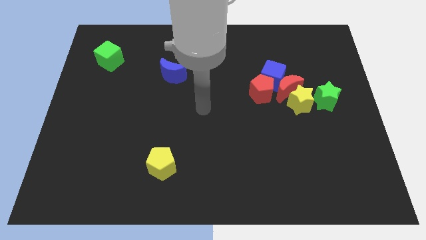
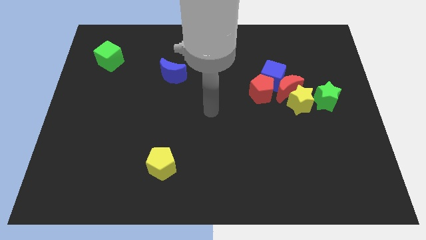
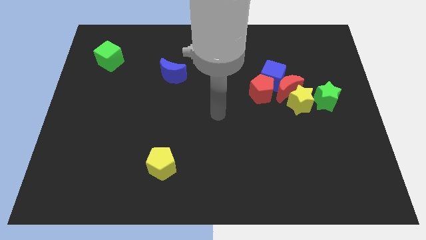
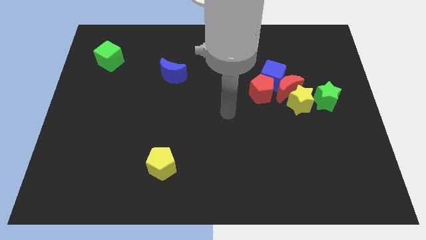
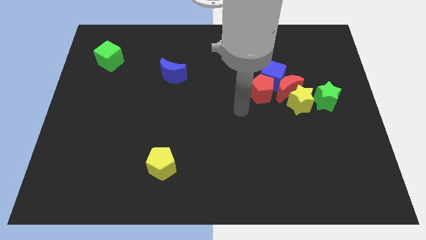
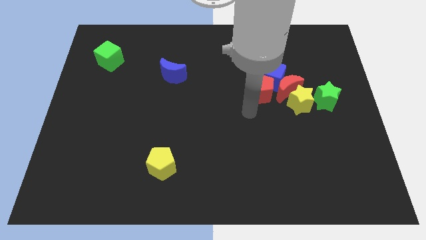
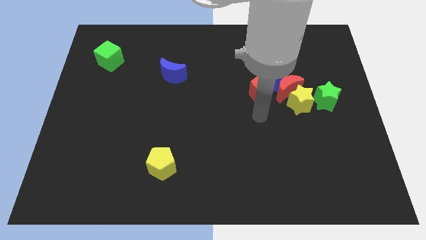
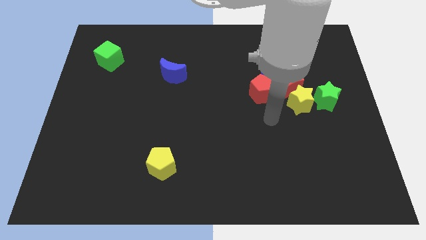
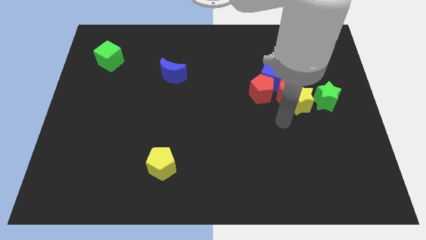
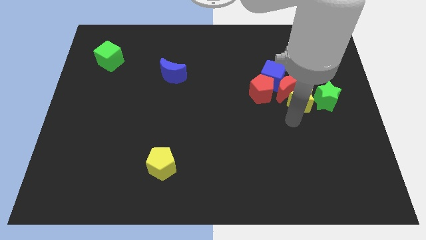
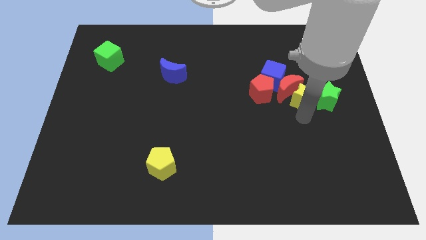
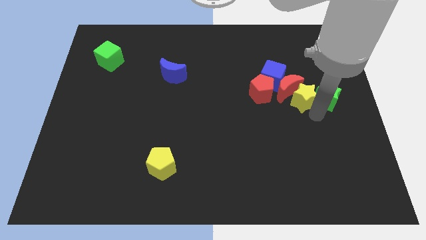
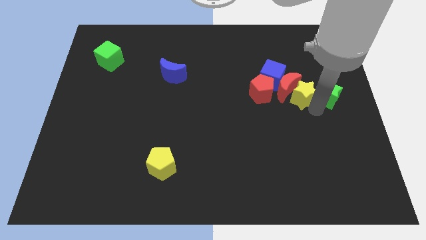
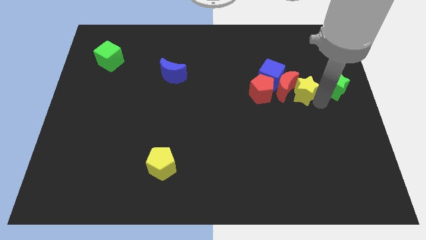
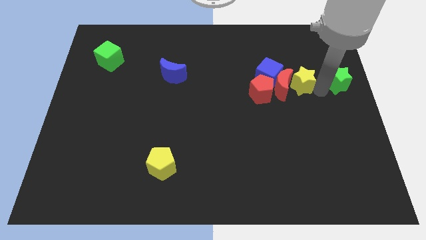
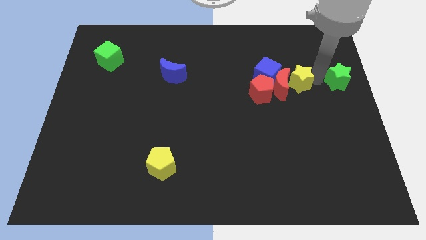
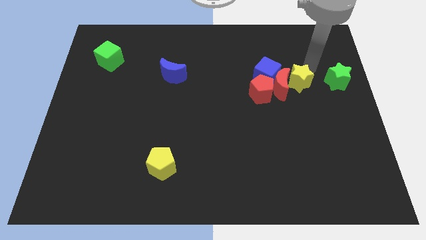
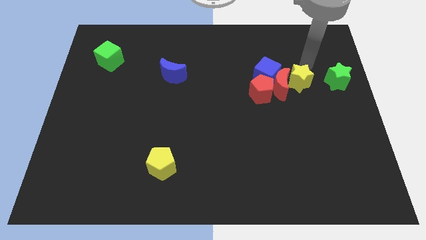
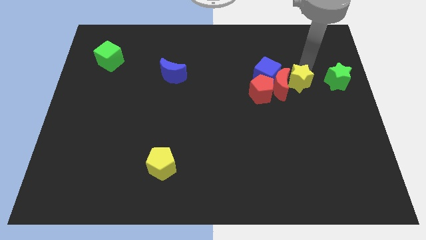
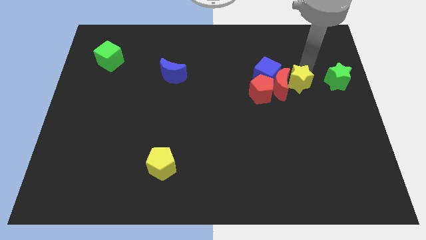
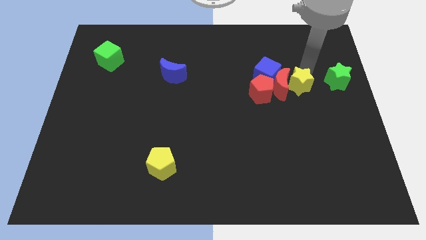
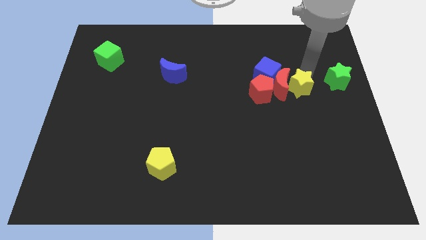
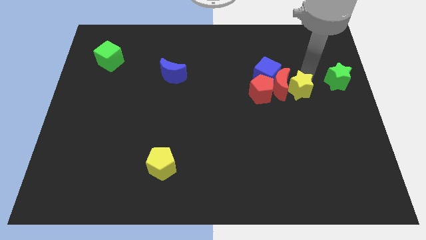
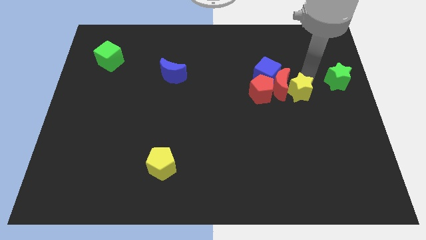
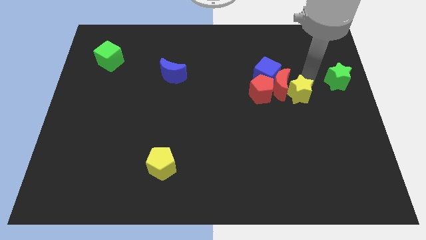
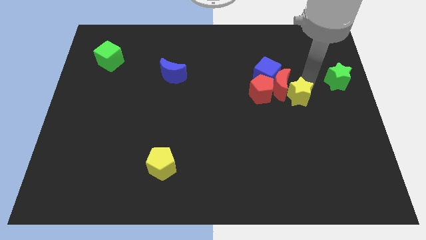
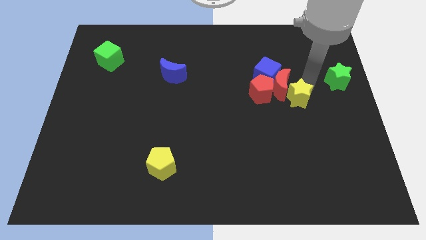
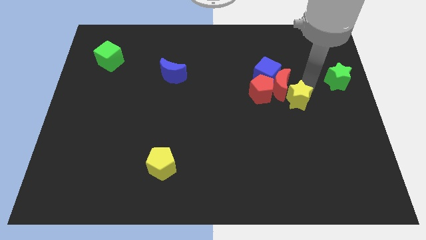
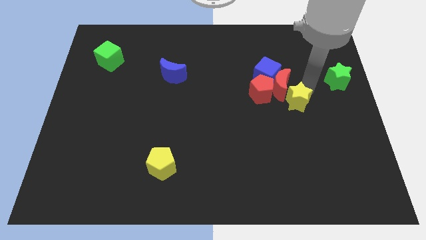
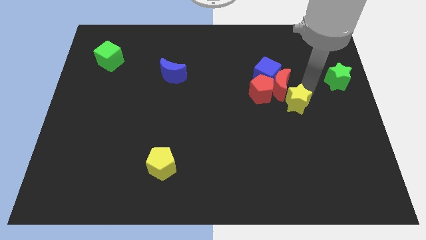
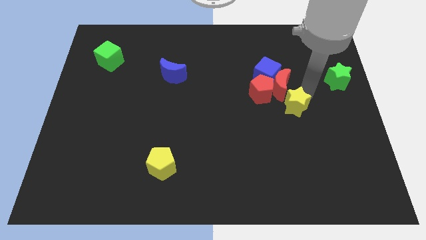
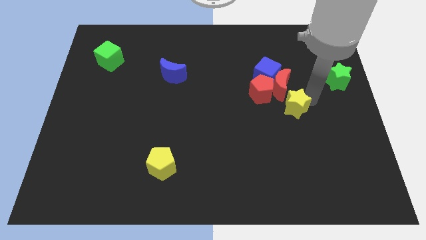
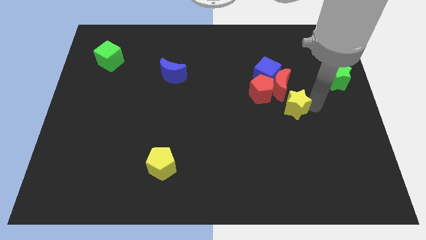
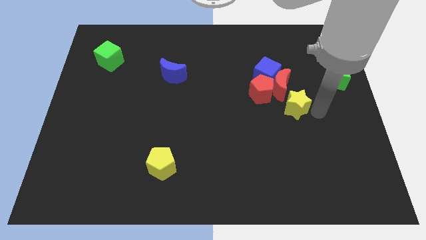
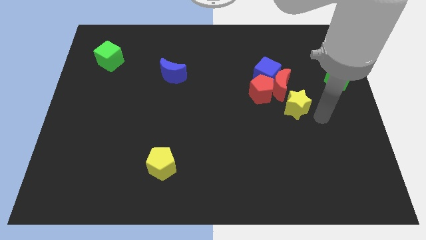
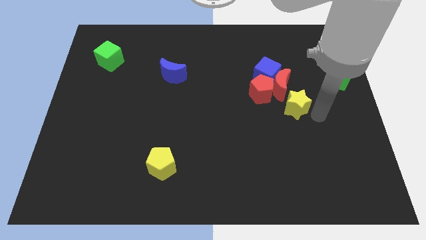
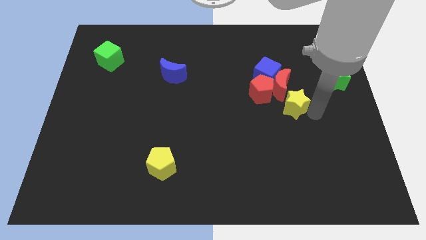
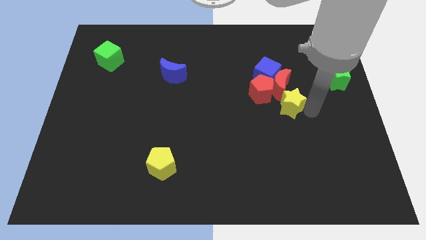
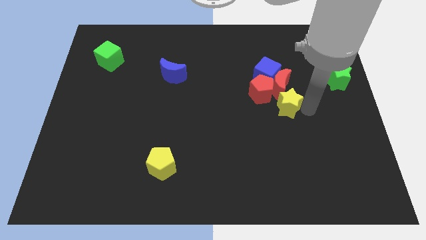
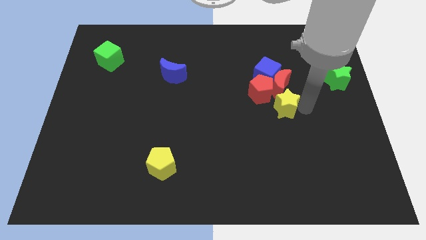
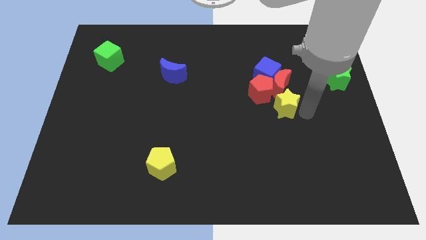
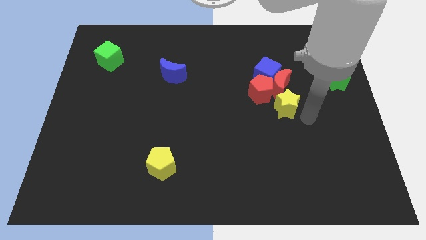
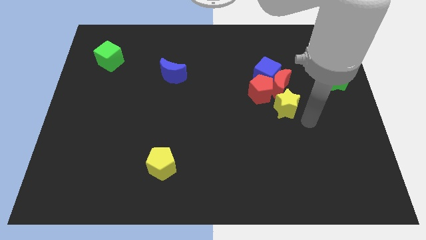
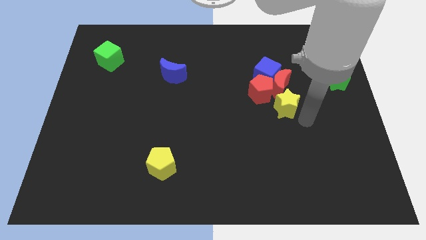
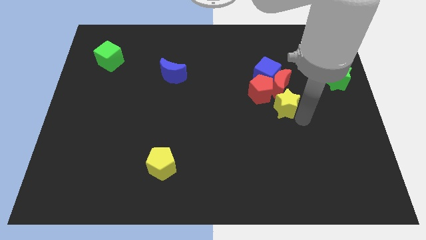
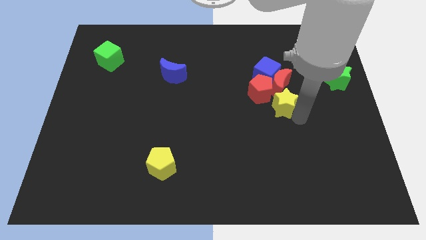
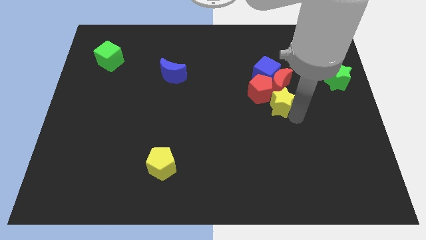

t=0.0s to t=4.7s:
push the yellow star to the red pentagon

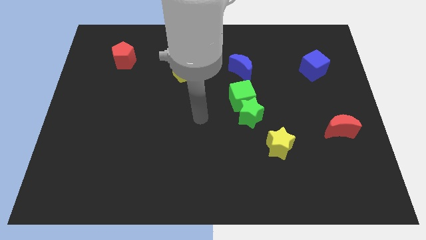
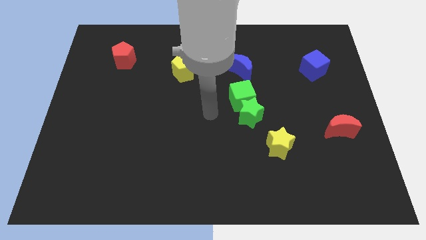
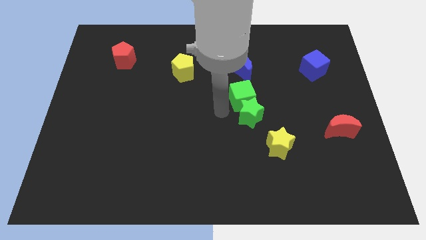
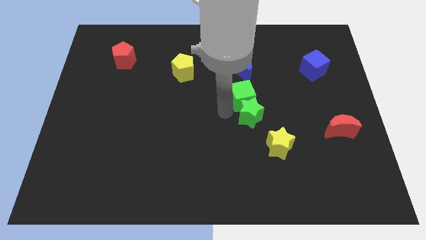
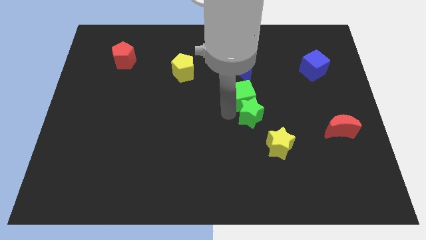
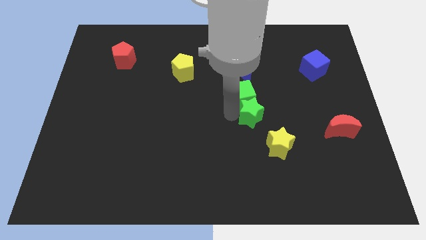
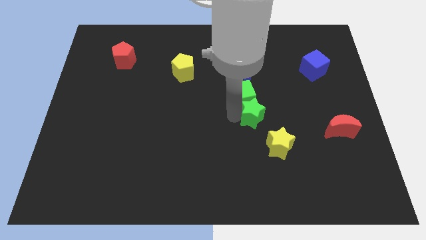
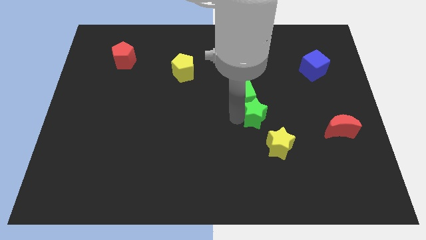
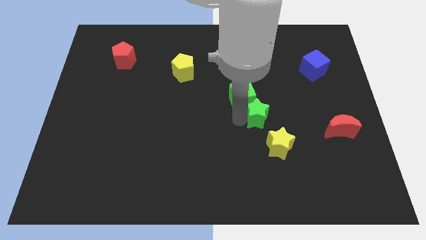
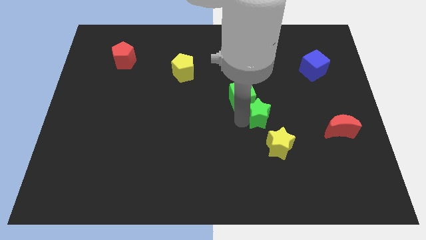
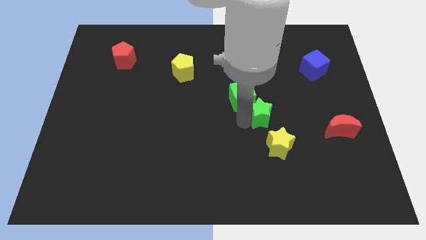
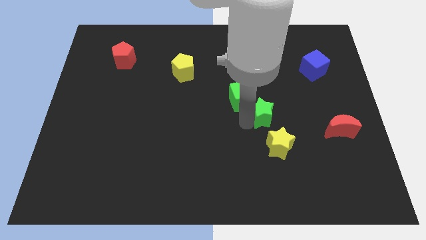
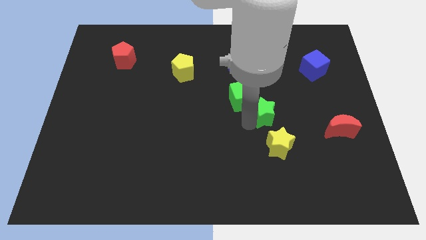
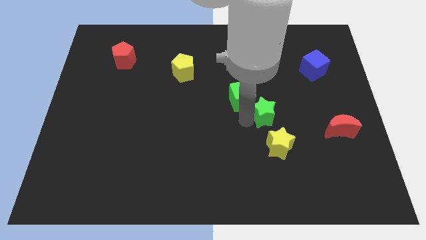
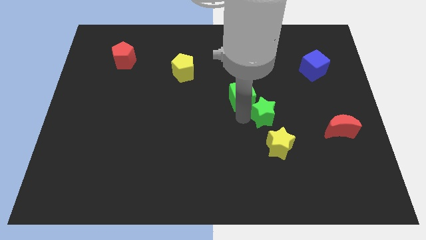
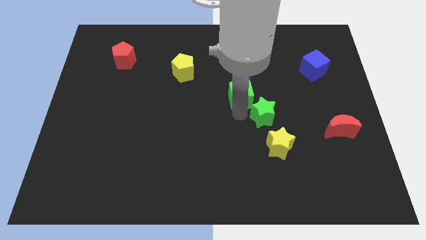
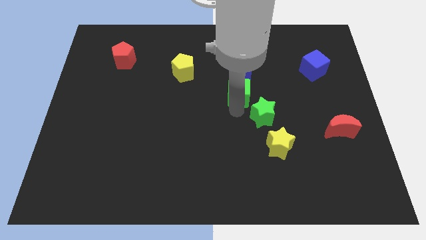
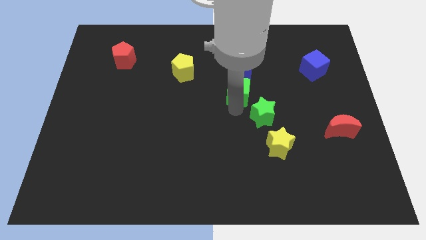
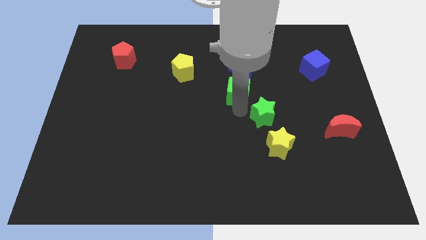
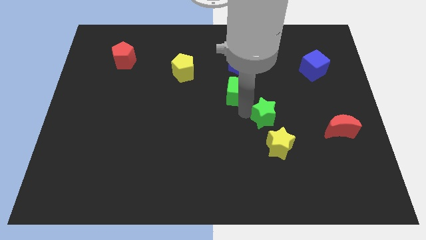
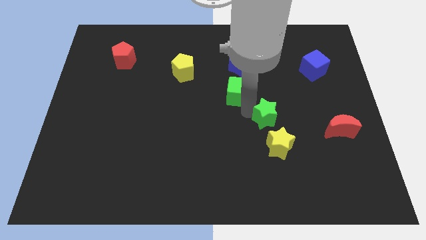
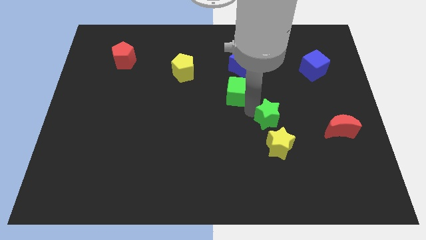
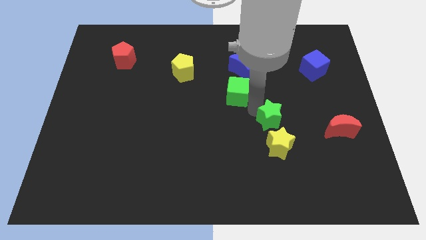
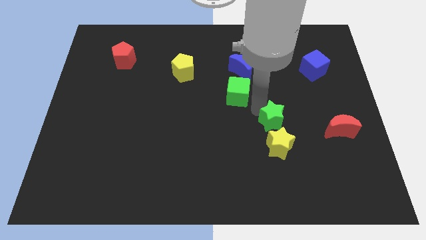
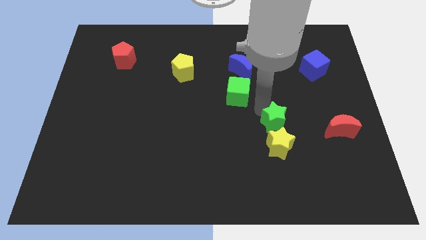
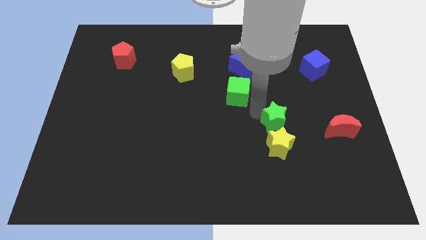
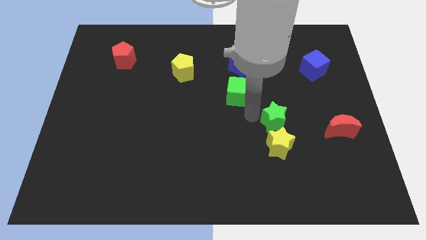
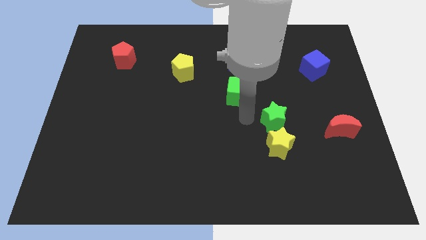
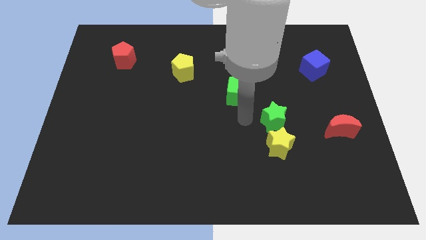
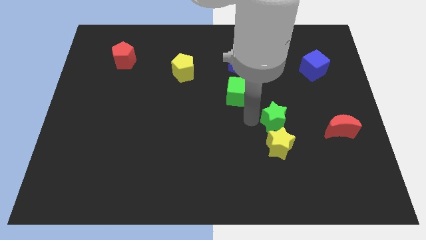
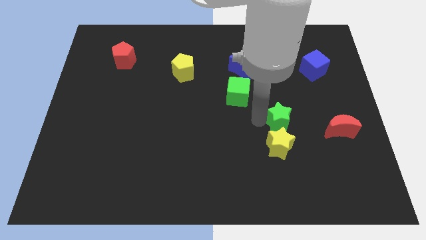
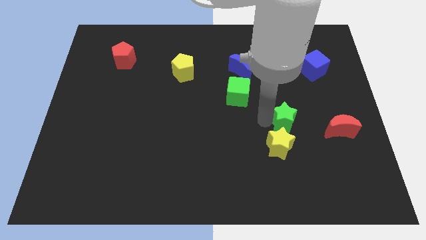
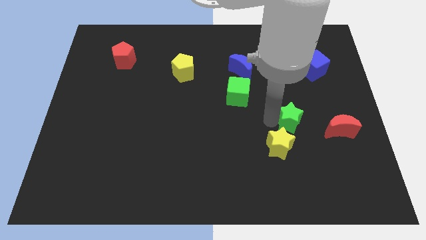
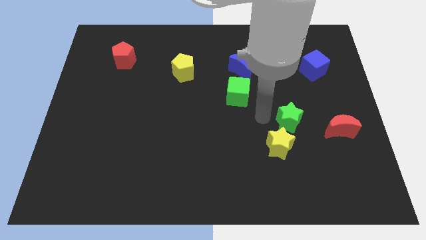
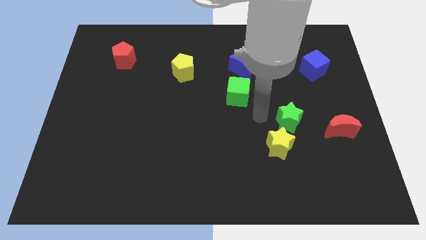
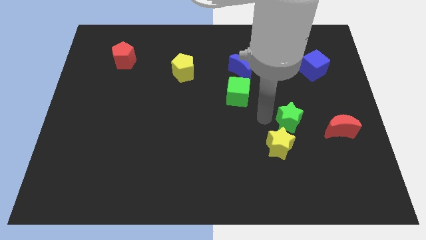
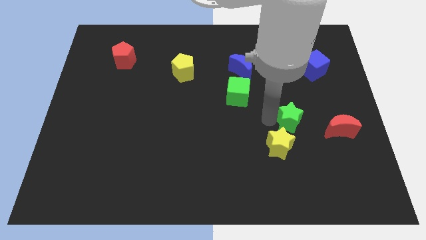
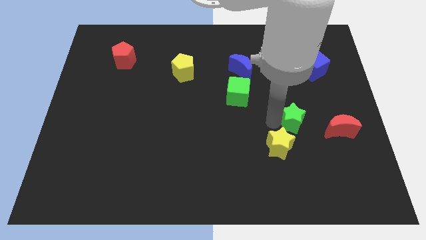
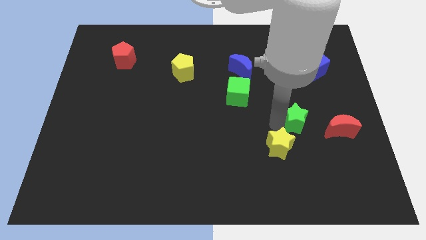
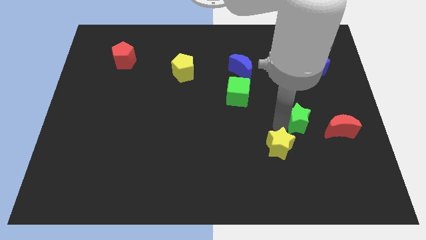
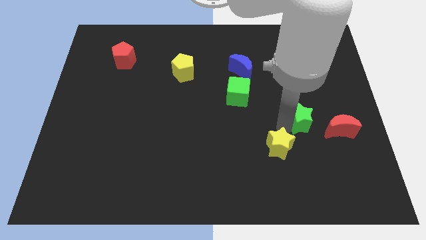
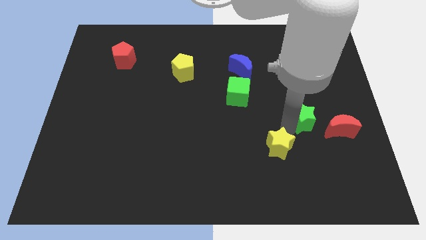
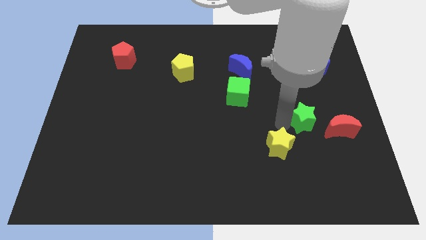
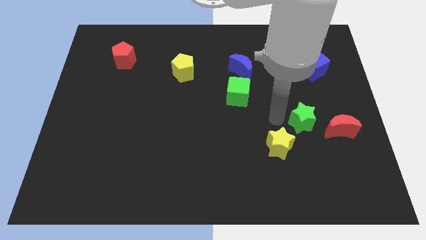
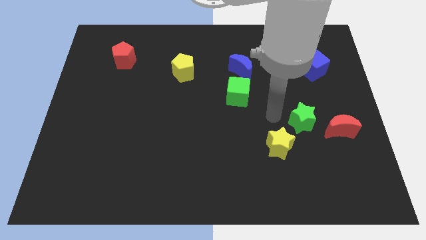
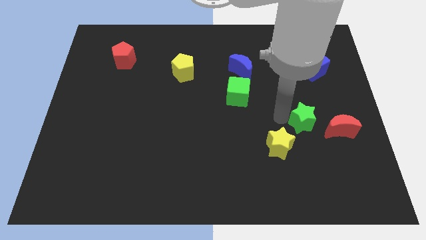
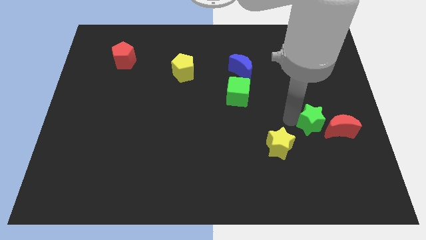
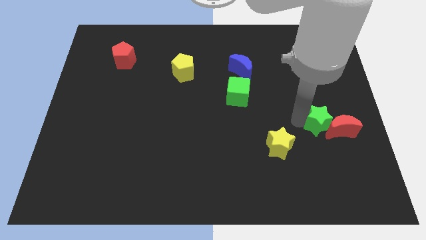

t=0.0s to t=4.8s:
move the green star next to the red moon
